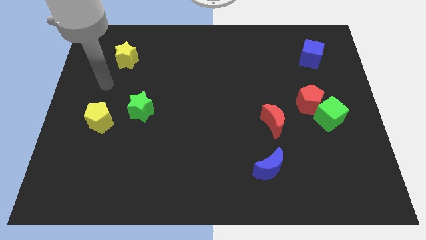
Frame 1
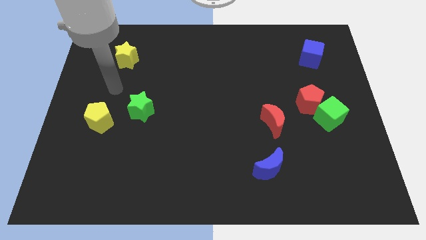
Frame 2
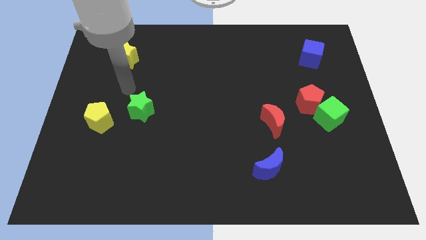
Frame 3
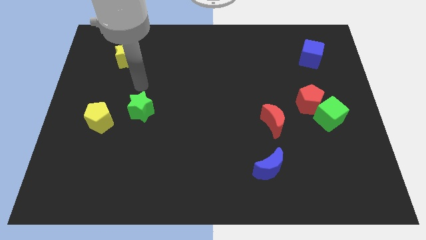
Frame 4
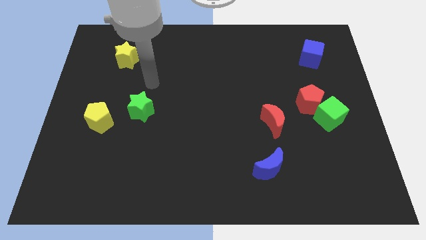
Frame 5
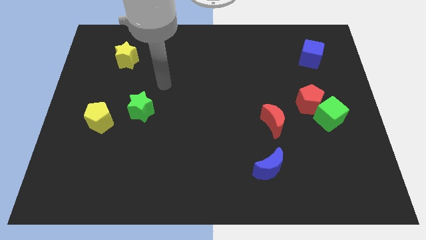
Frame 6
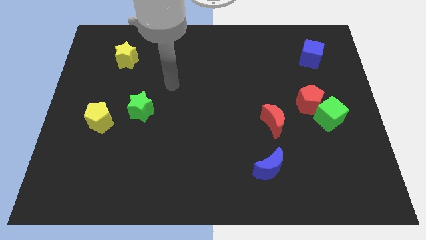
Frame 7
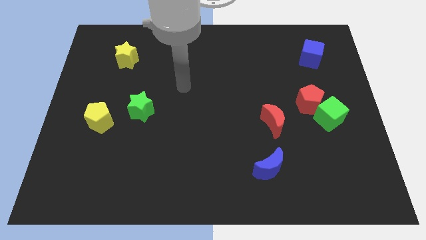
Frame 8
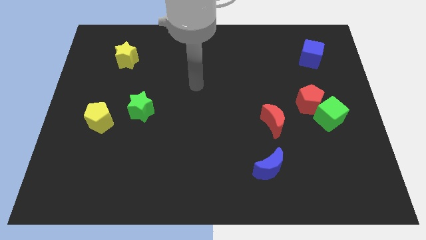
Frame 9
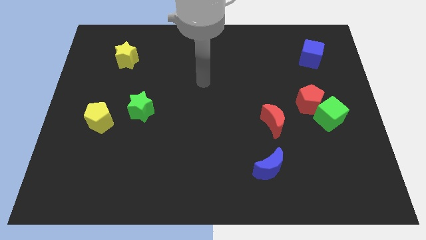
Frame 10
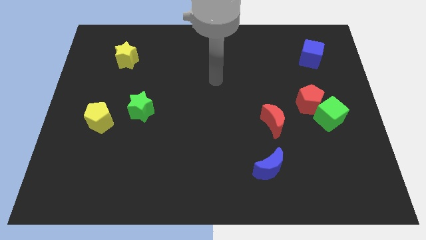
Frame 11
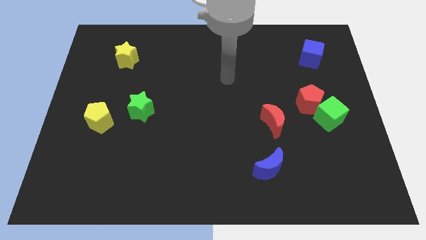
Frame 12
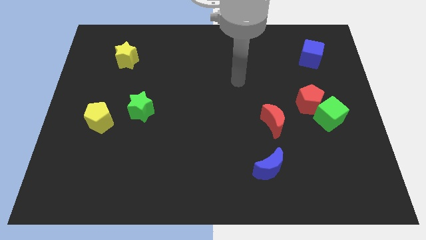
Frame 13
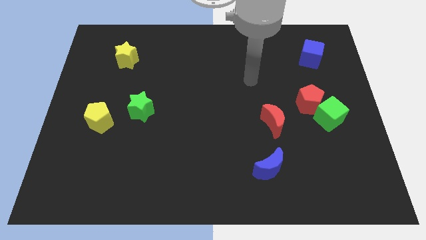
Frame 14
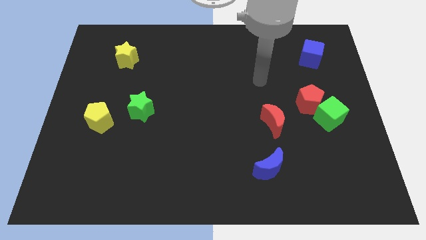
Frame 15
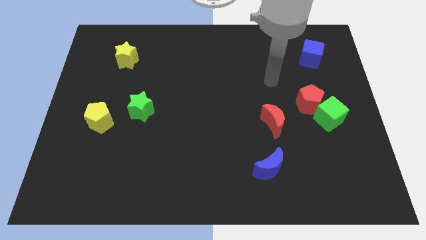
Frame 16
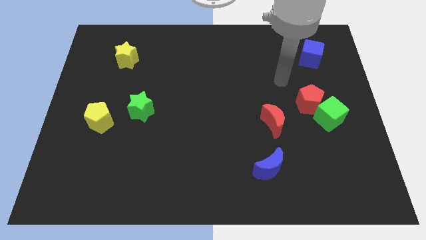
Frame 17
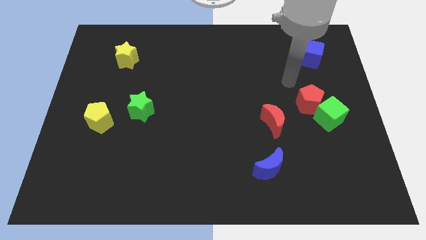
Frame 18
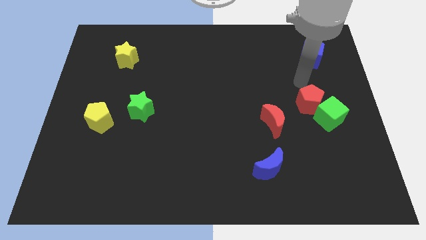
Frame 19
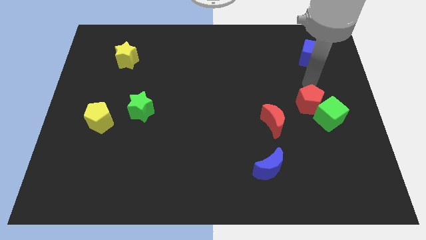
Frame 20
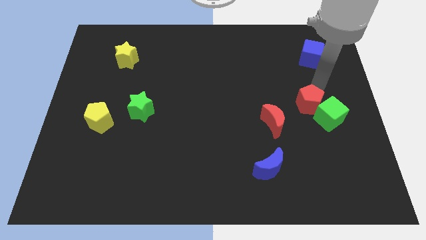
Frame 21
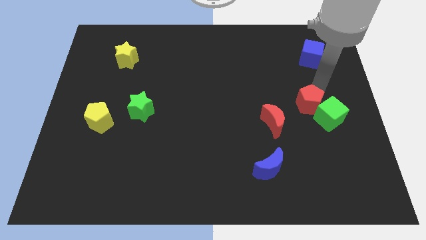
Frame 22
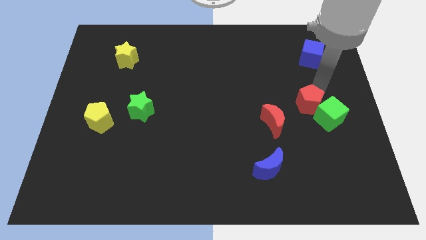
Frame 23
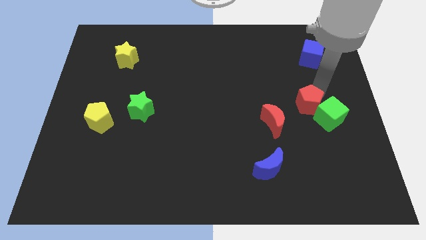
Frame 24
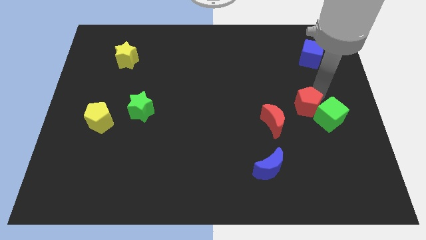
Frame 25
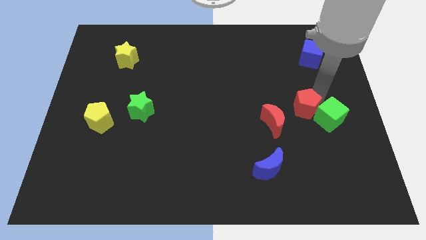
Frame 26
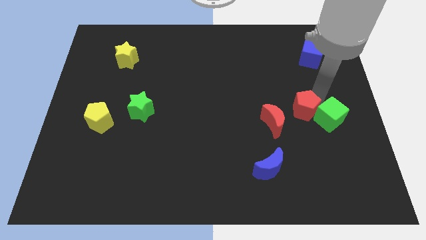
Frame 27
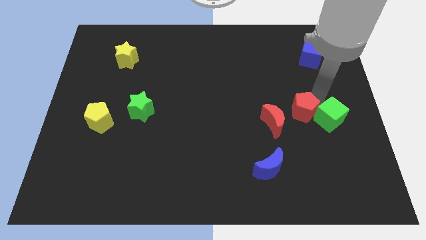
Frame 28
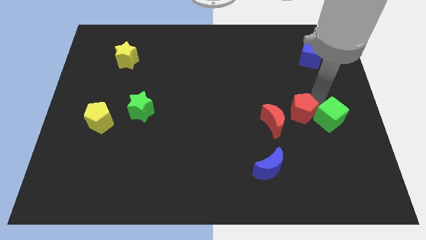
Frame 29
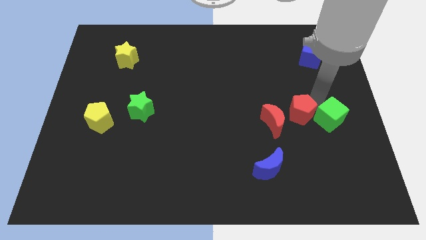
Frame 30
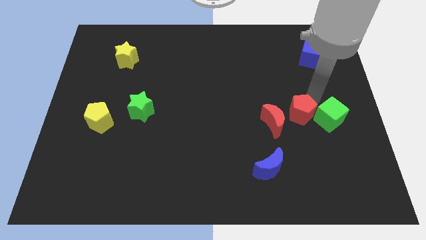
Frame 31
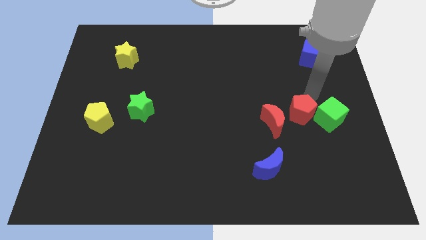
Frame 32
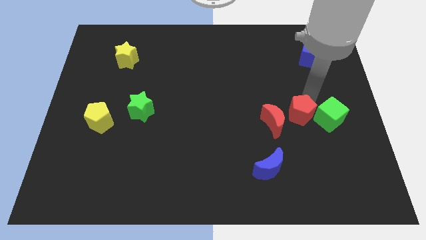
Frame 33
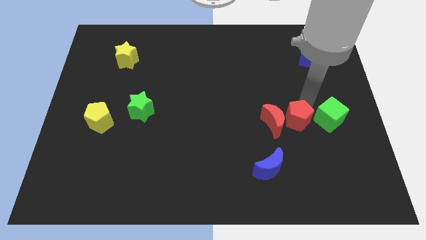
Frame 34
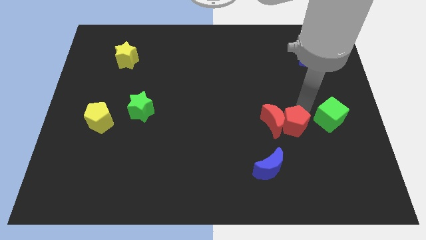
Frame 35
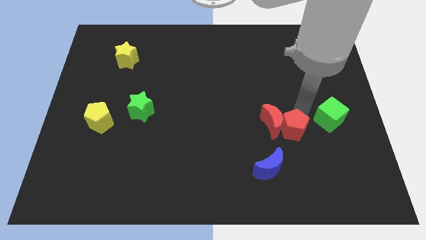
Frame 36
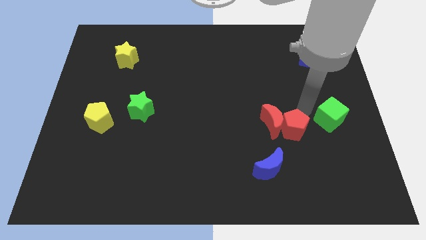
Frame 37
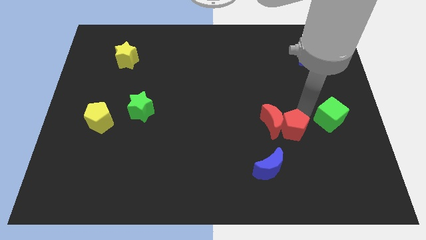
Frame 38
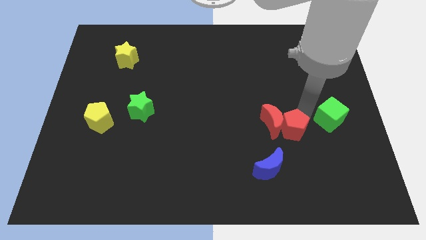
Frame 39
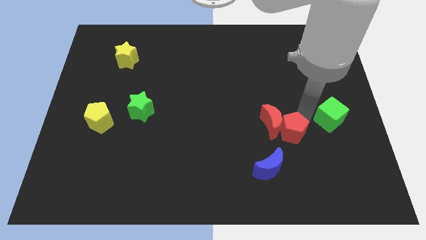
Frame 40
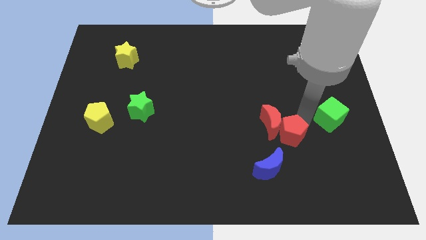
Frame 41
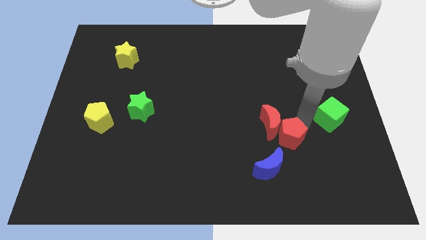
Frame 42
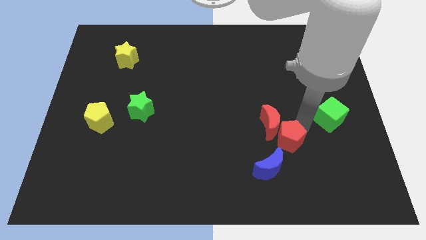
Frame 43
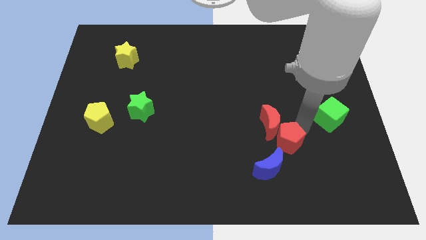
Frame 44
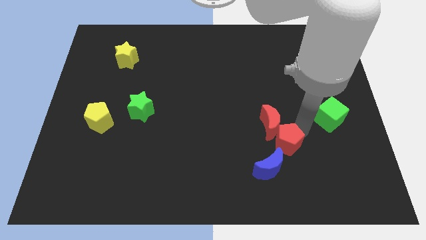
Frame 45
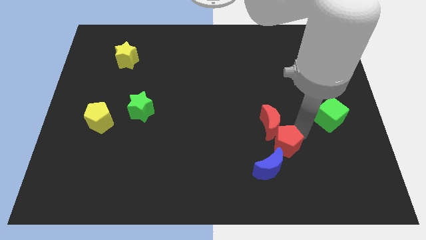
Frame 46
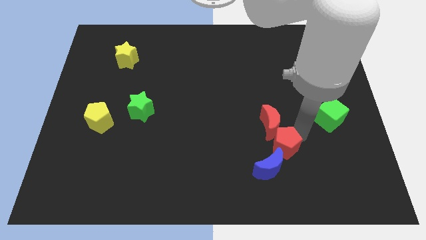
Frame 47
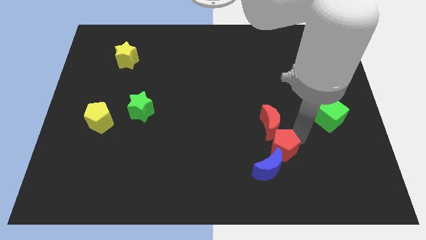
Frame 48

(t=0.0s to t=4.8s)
put the red pentagon towards the blue moon

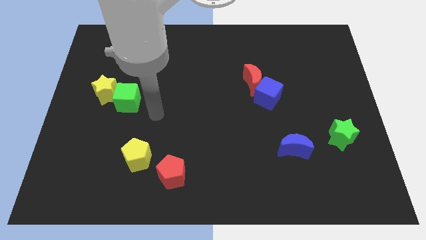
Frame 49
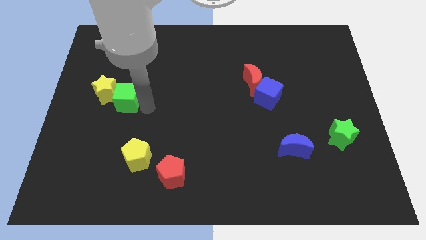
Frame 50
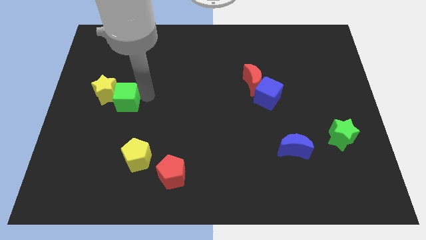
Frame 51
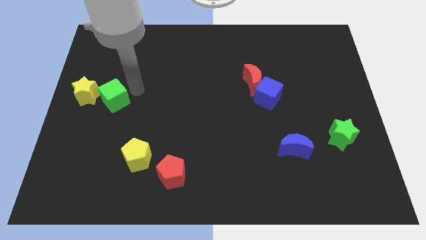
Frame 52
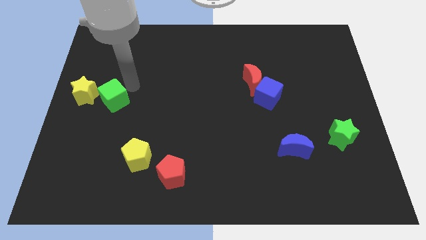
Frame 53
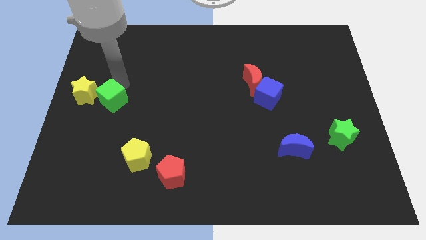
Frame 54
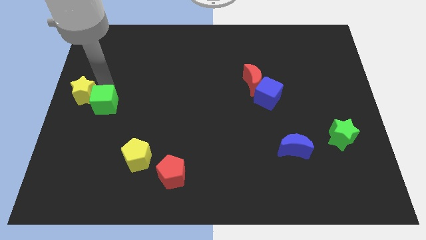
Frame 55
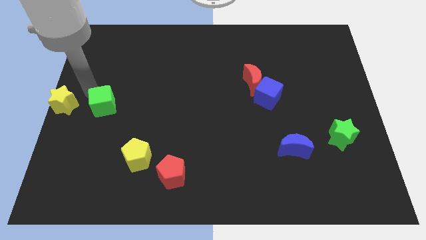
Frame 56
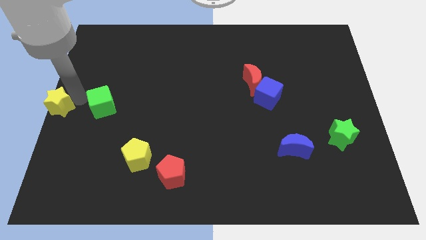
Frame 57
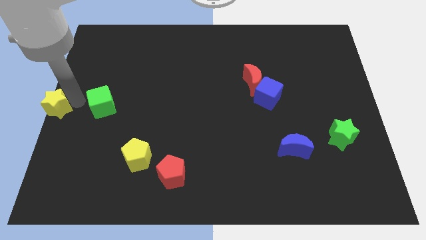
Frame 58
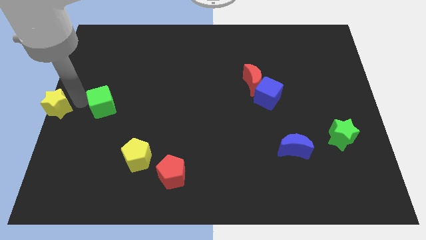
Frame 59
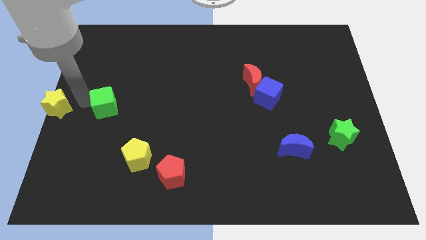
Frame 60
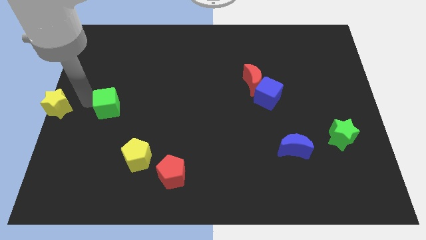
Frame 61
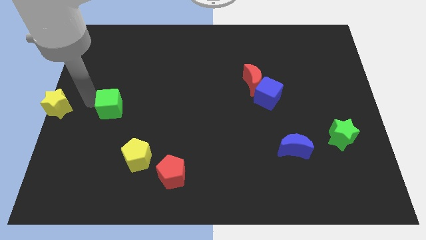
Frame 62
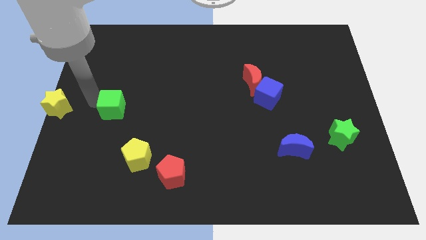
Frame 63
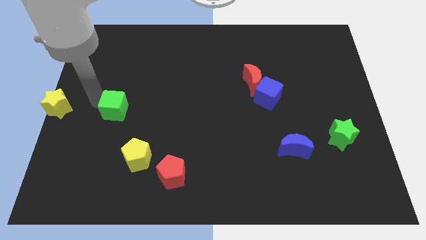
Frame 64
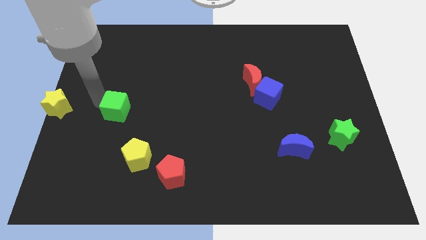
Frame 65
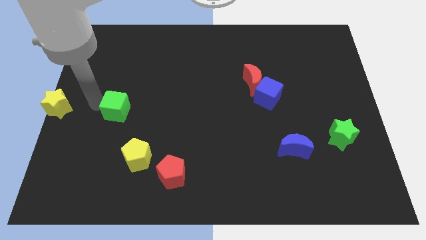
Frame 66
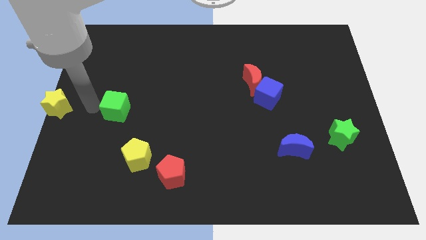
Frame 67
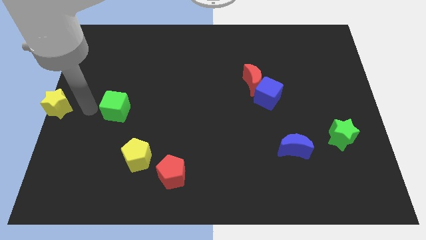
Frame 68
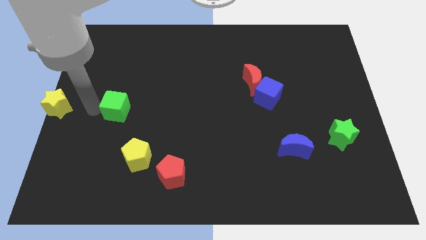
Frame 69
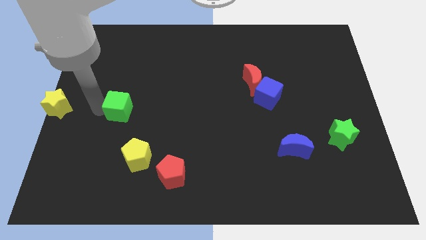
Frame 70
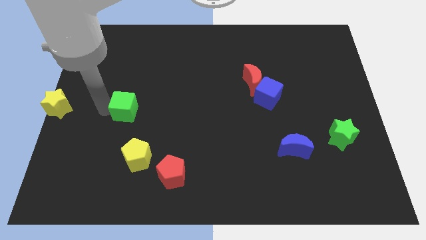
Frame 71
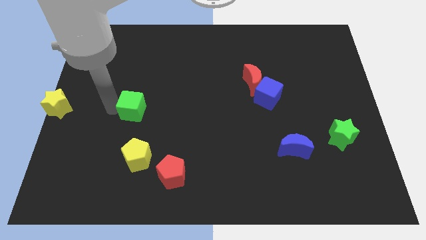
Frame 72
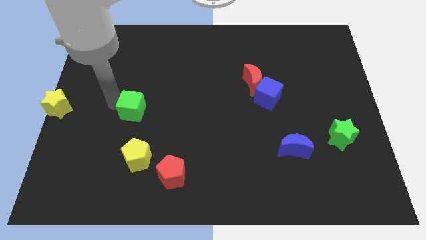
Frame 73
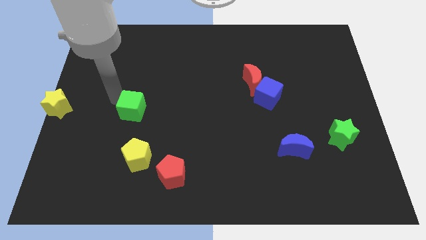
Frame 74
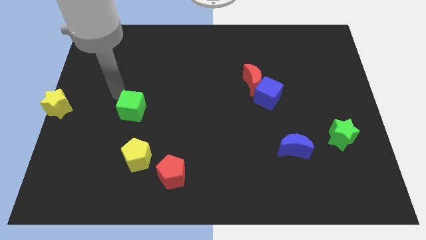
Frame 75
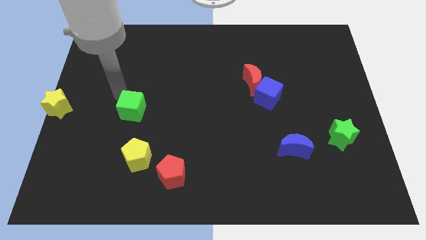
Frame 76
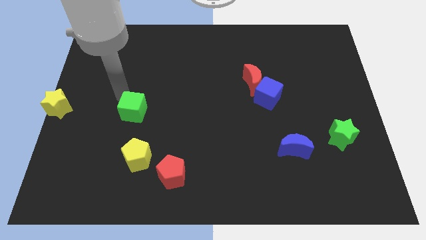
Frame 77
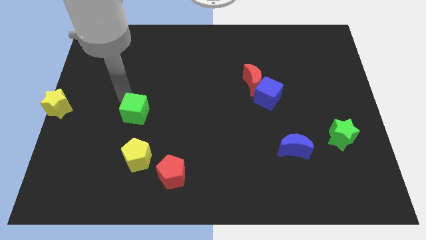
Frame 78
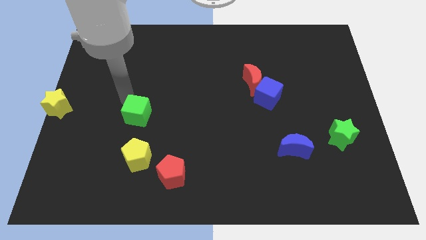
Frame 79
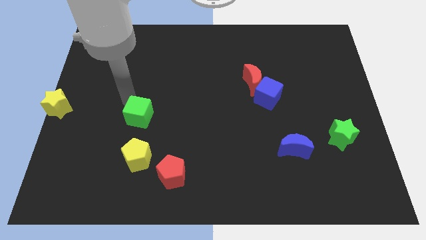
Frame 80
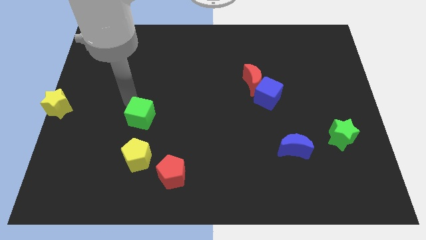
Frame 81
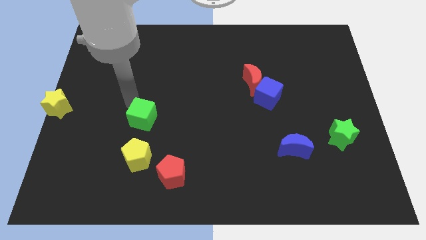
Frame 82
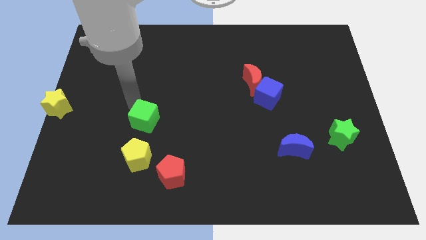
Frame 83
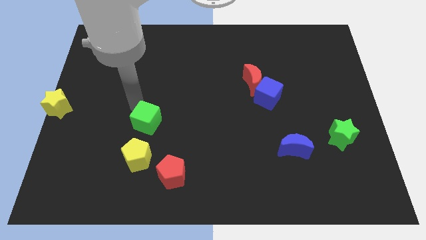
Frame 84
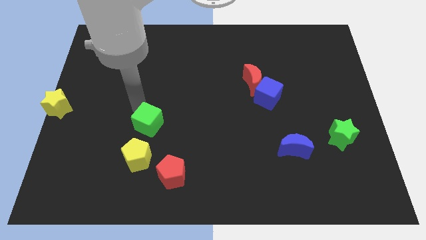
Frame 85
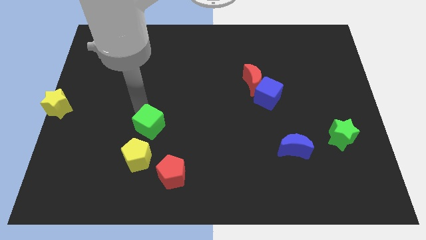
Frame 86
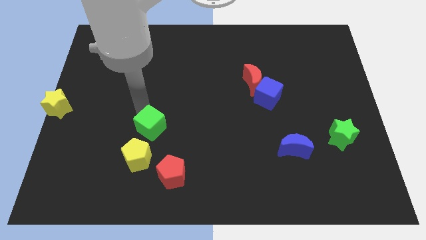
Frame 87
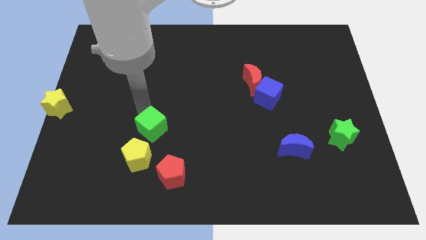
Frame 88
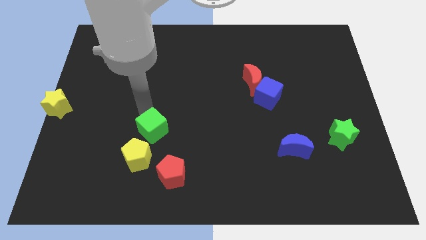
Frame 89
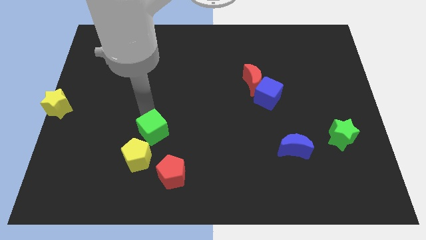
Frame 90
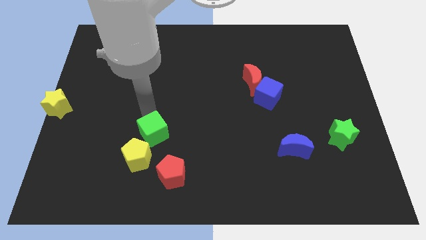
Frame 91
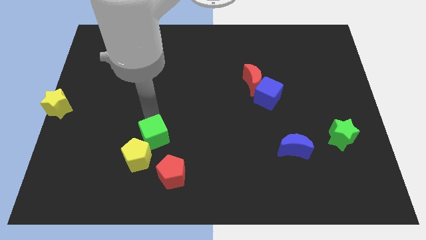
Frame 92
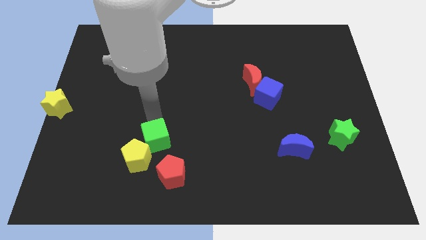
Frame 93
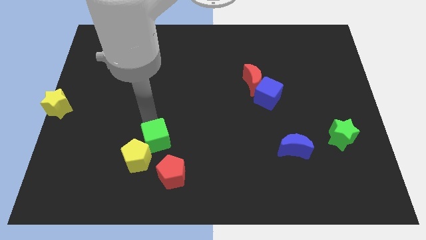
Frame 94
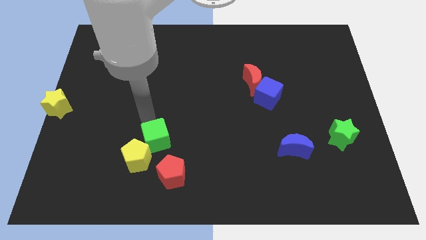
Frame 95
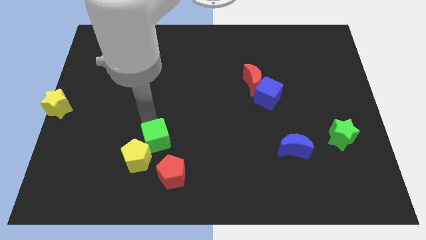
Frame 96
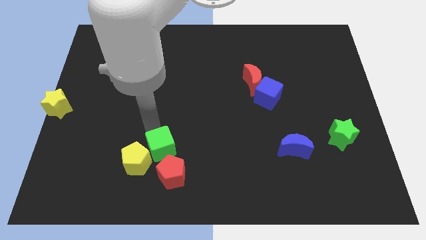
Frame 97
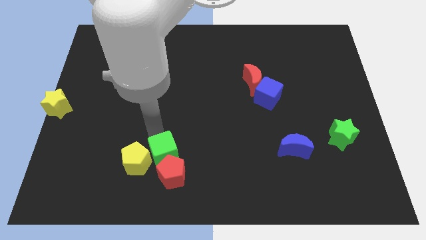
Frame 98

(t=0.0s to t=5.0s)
move the green cube towards the red pentagon
